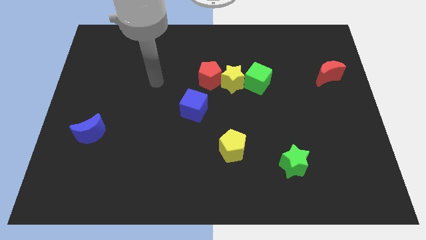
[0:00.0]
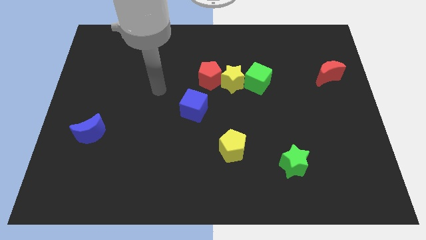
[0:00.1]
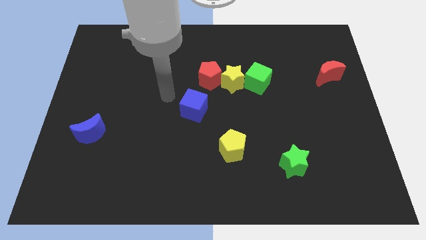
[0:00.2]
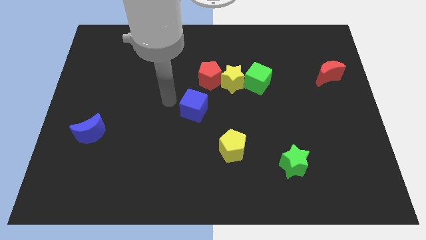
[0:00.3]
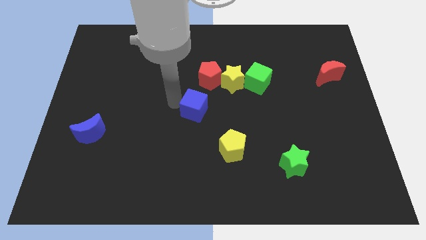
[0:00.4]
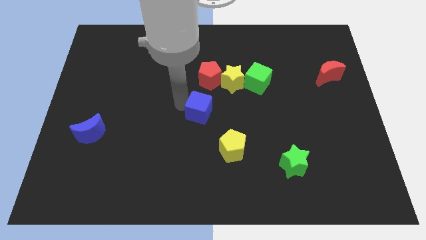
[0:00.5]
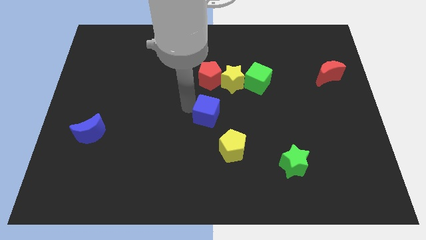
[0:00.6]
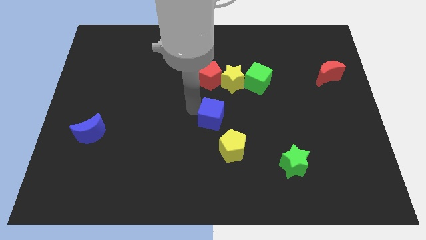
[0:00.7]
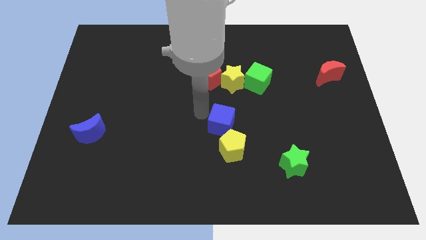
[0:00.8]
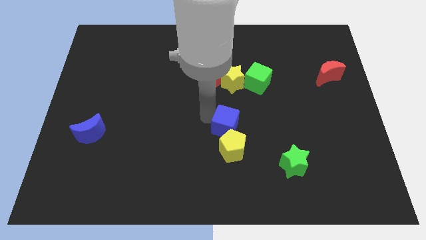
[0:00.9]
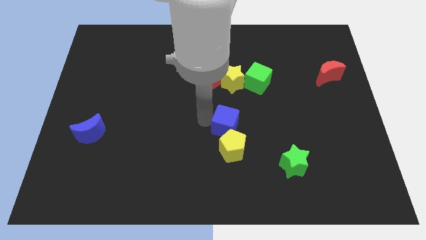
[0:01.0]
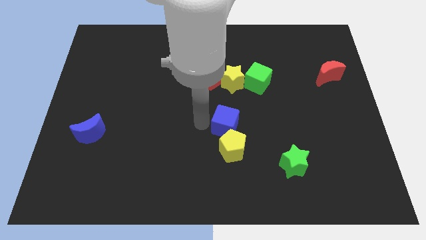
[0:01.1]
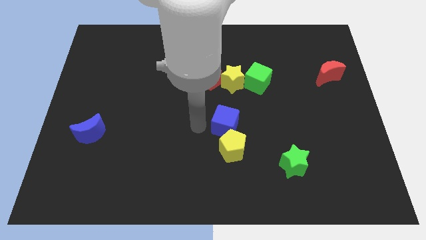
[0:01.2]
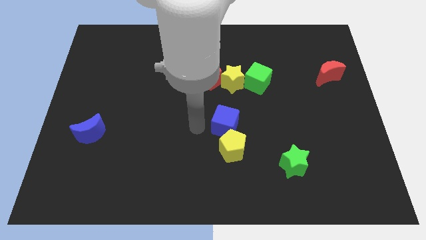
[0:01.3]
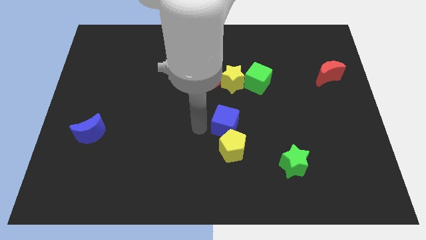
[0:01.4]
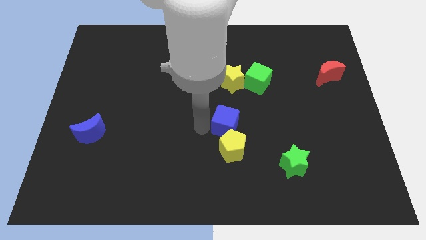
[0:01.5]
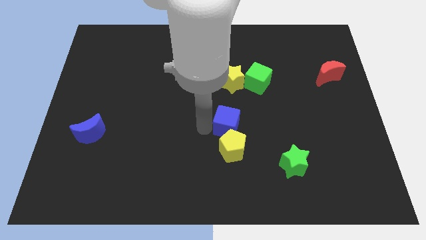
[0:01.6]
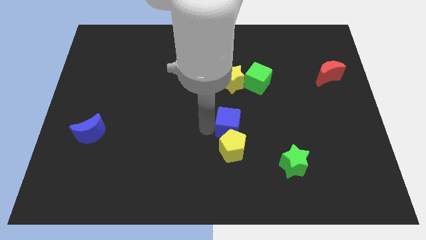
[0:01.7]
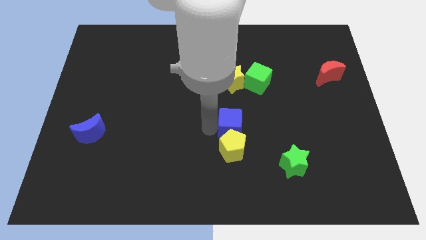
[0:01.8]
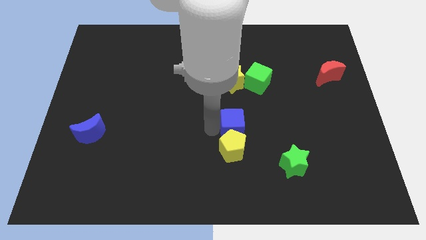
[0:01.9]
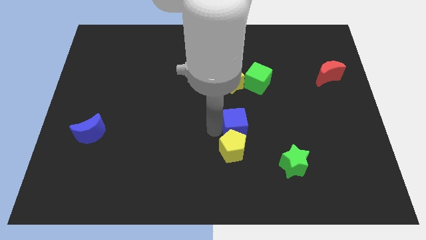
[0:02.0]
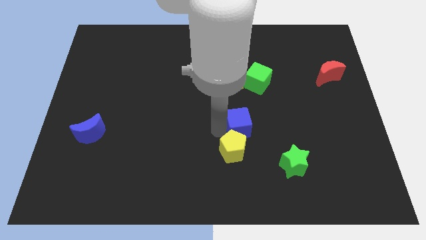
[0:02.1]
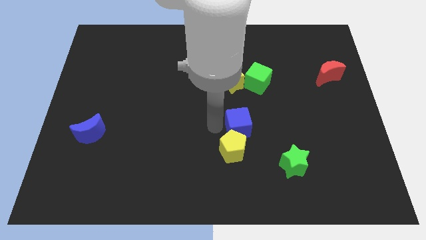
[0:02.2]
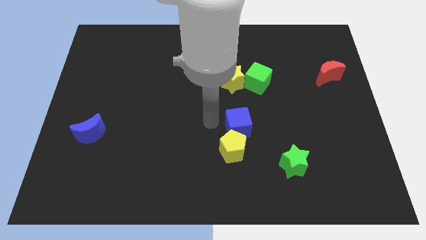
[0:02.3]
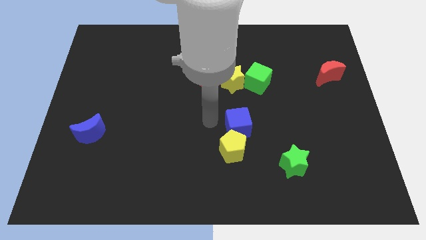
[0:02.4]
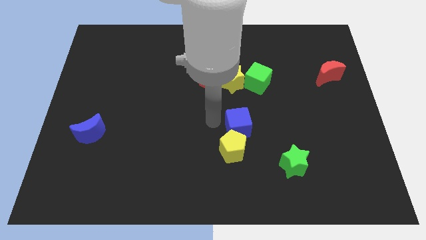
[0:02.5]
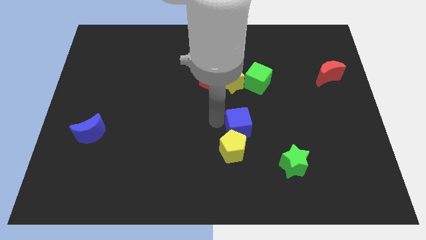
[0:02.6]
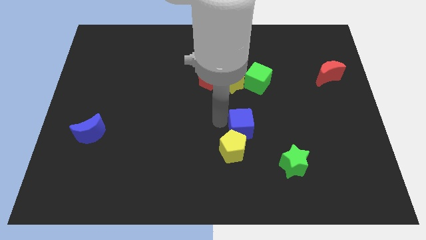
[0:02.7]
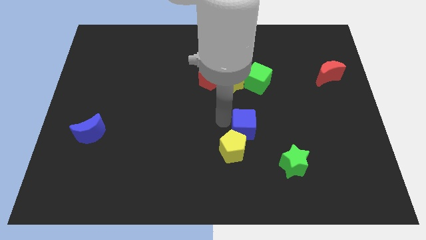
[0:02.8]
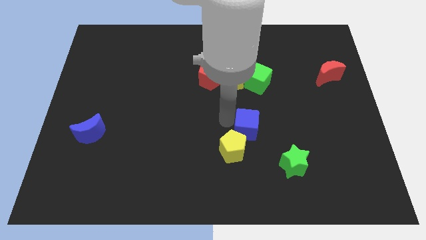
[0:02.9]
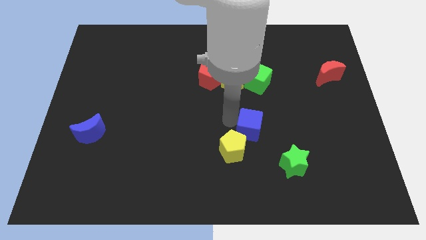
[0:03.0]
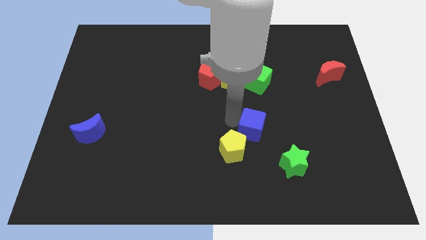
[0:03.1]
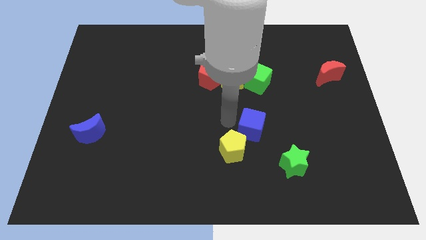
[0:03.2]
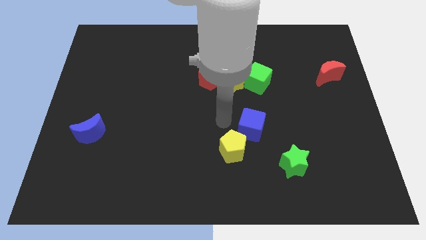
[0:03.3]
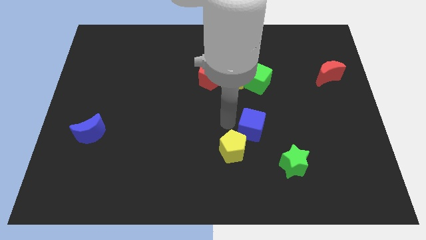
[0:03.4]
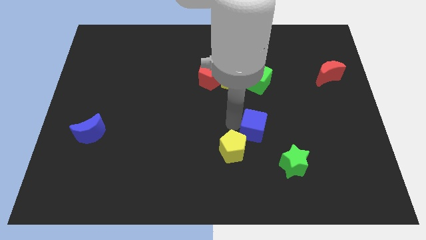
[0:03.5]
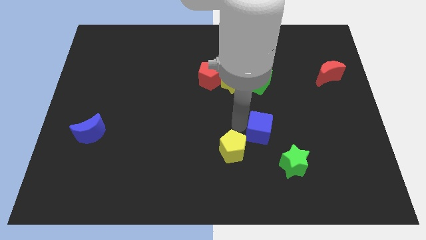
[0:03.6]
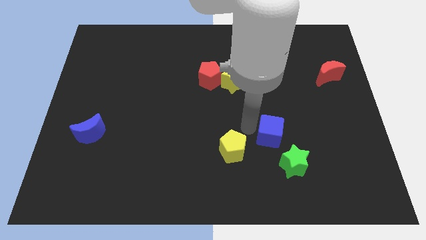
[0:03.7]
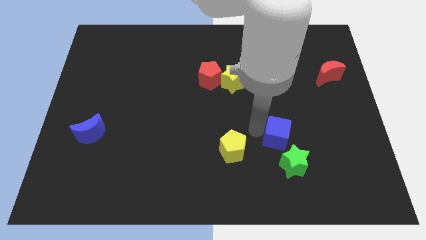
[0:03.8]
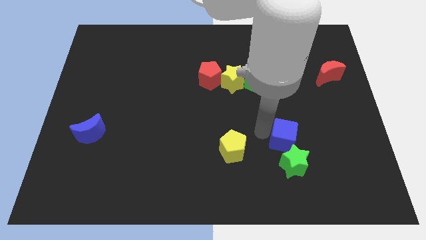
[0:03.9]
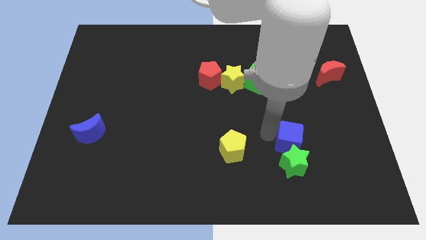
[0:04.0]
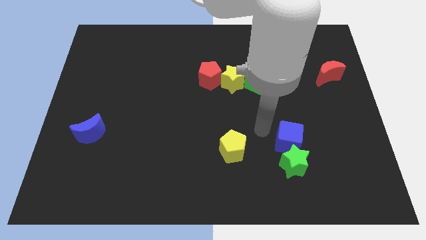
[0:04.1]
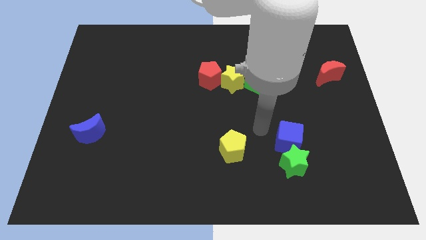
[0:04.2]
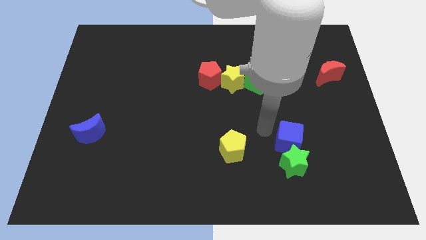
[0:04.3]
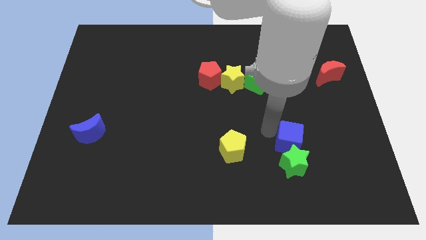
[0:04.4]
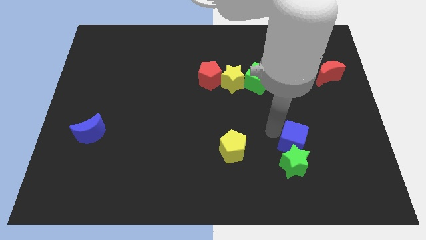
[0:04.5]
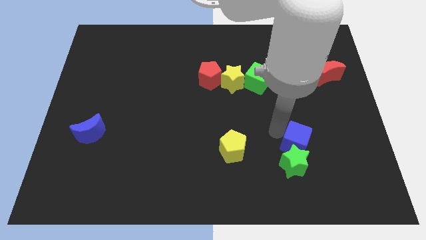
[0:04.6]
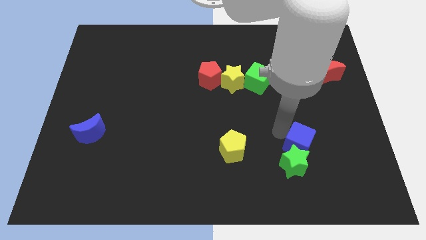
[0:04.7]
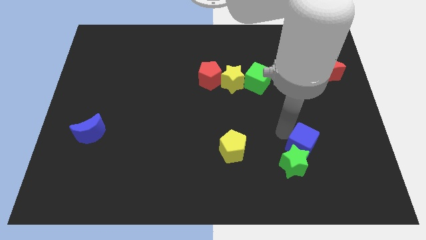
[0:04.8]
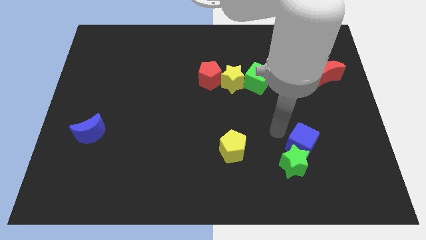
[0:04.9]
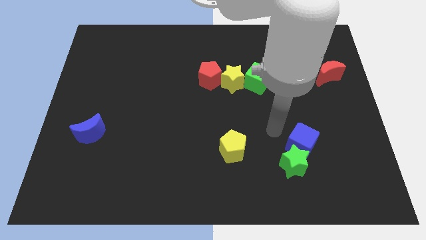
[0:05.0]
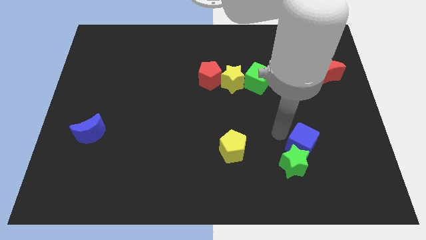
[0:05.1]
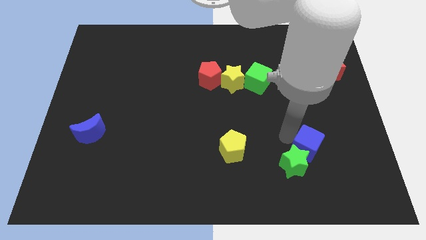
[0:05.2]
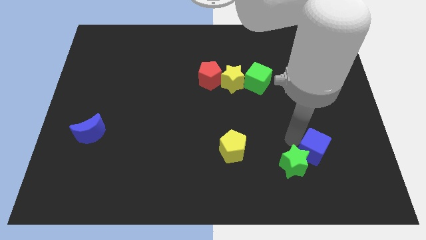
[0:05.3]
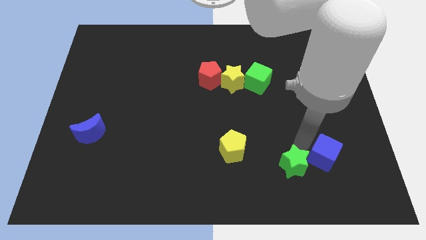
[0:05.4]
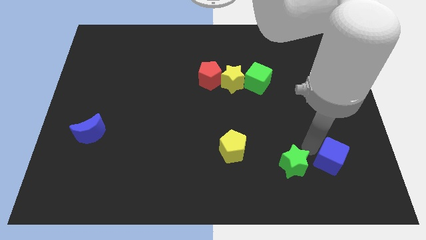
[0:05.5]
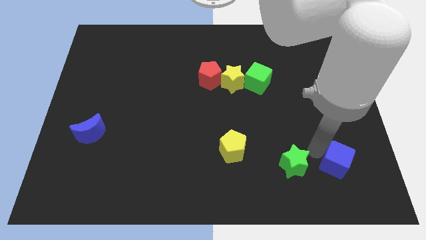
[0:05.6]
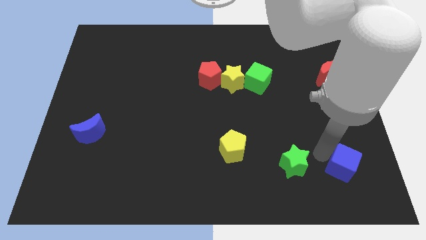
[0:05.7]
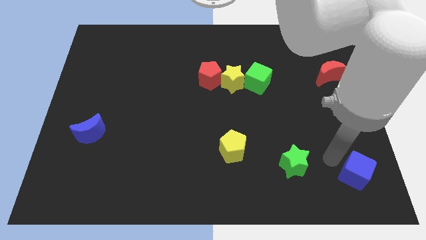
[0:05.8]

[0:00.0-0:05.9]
put the blue cube to the lower right corner

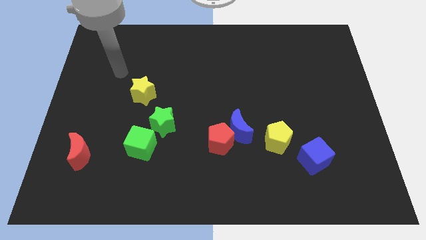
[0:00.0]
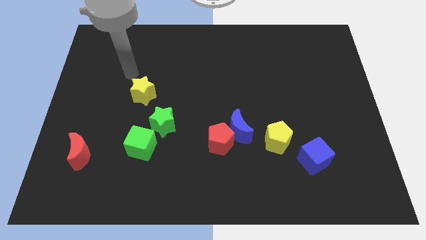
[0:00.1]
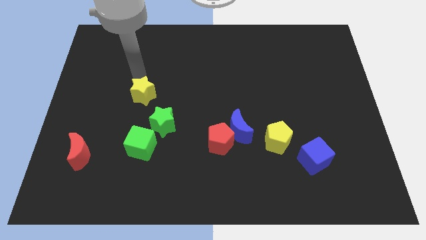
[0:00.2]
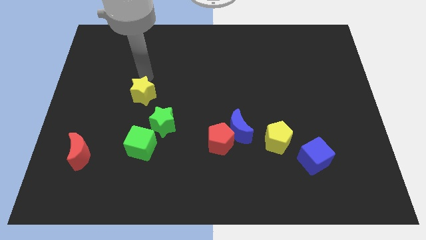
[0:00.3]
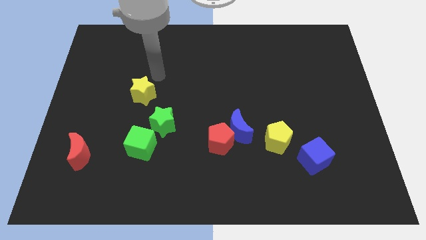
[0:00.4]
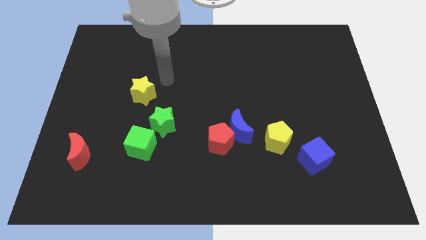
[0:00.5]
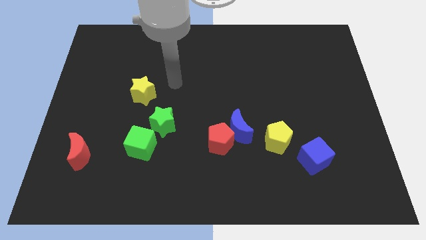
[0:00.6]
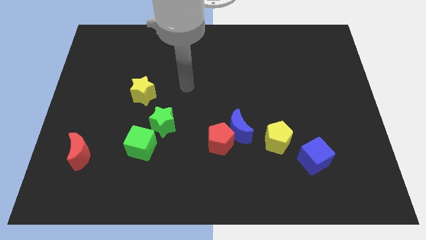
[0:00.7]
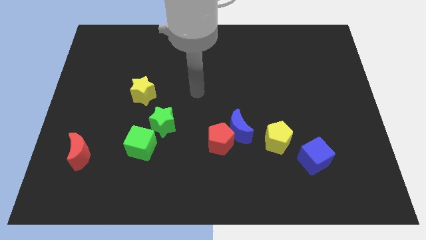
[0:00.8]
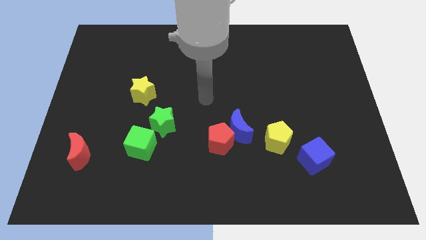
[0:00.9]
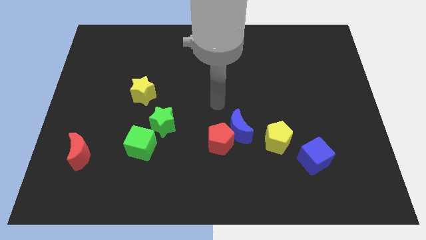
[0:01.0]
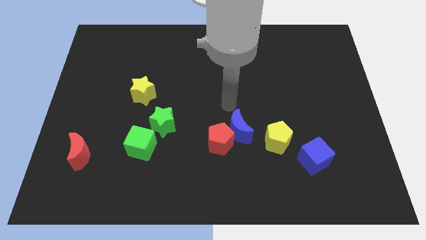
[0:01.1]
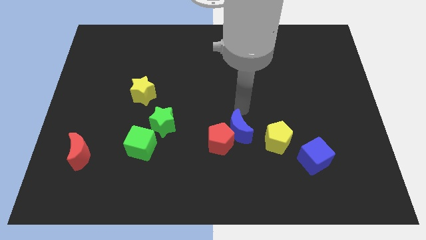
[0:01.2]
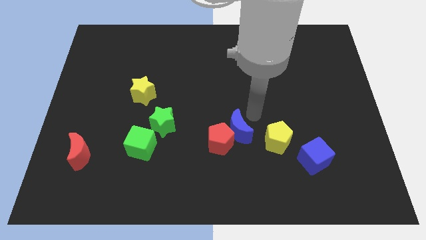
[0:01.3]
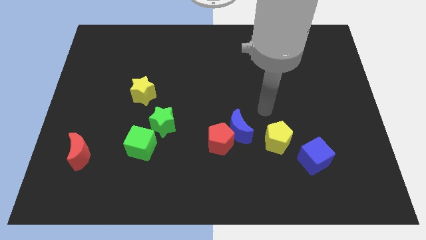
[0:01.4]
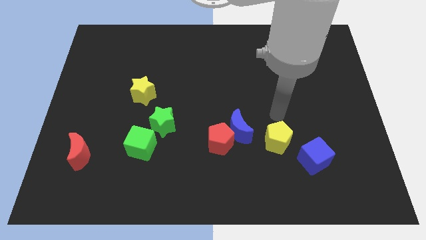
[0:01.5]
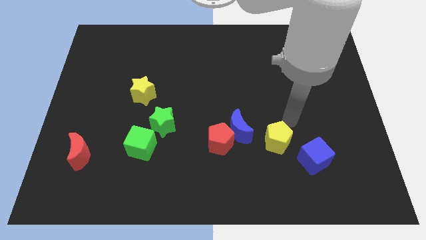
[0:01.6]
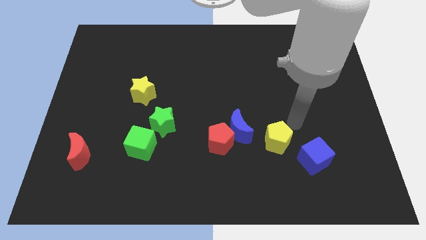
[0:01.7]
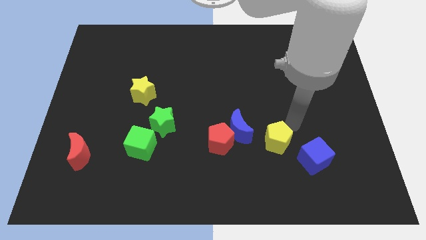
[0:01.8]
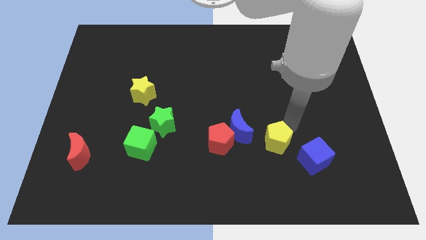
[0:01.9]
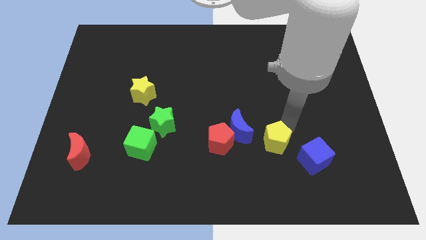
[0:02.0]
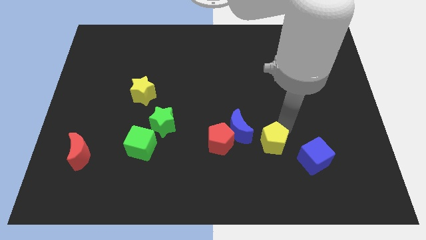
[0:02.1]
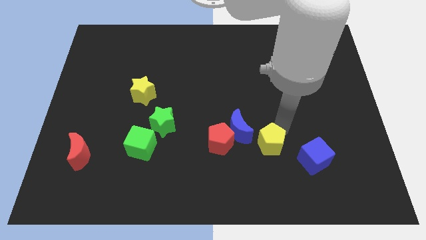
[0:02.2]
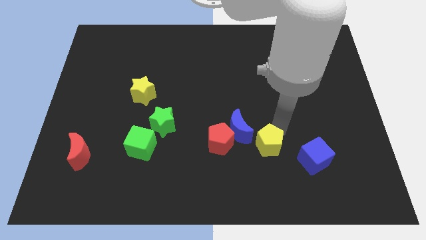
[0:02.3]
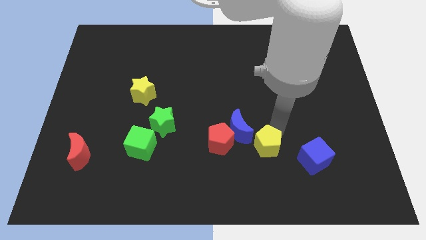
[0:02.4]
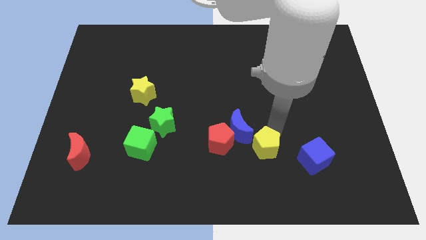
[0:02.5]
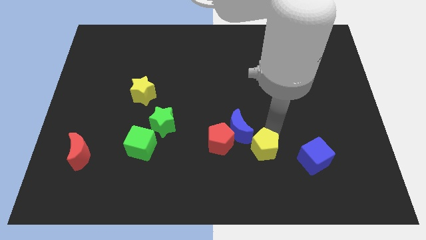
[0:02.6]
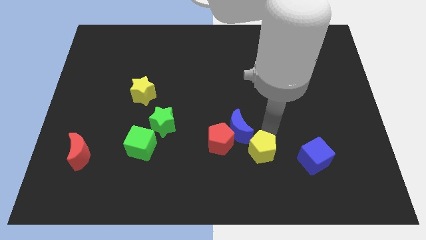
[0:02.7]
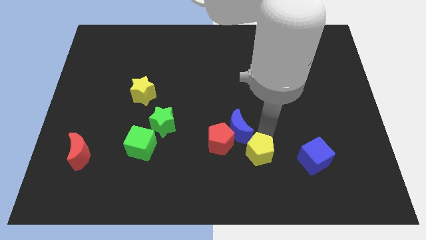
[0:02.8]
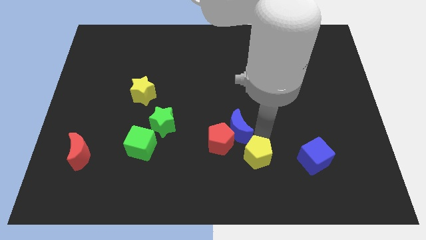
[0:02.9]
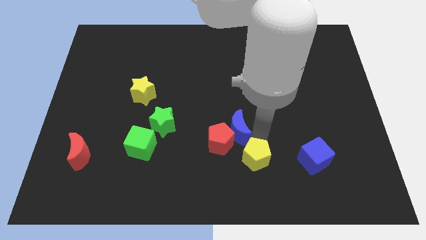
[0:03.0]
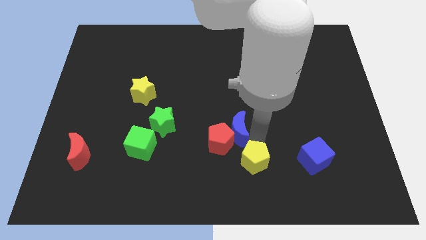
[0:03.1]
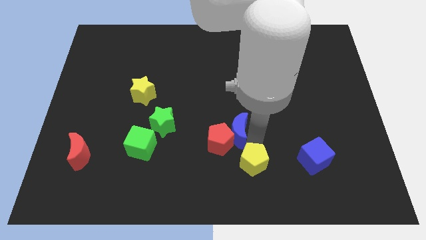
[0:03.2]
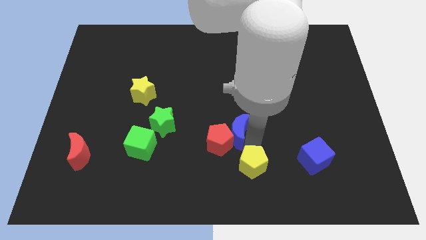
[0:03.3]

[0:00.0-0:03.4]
move the yellow pentagon to the bottom side
